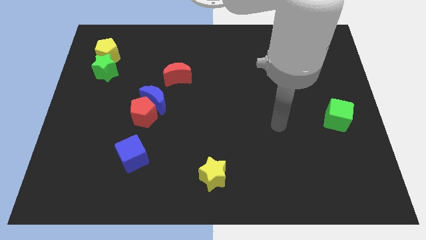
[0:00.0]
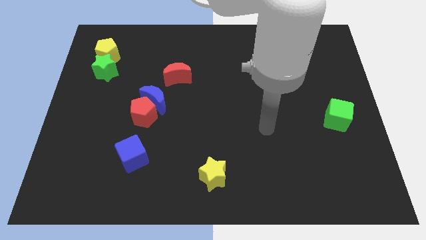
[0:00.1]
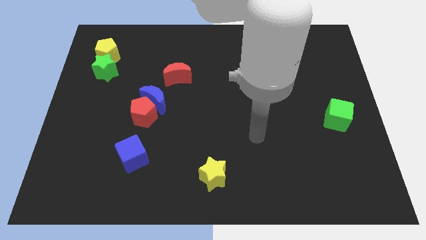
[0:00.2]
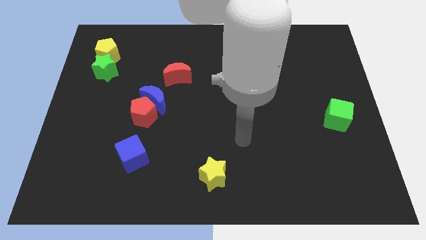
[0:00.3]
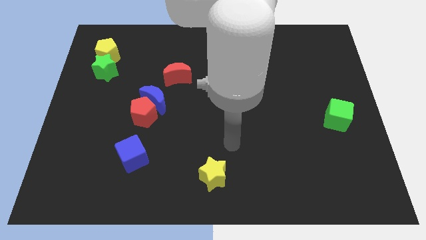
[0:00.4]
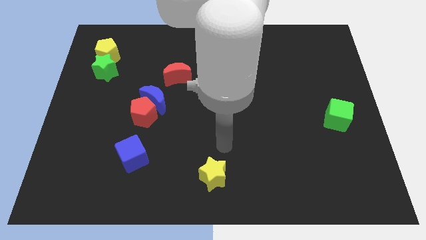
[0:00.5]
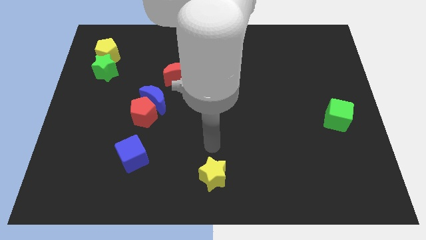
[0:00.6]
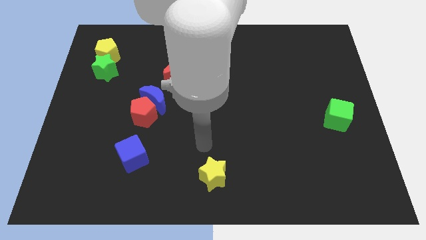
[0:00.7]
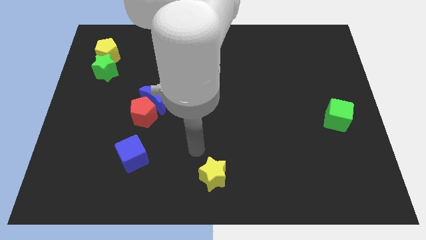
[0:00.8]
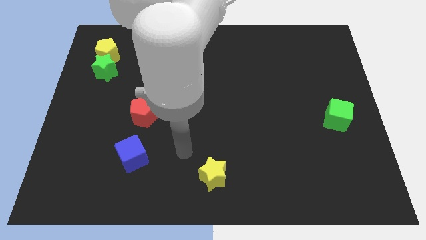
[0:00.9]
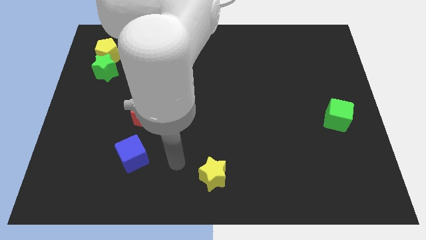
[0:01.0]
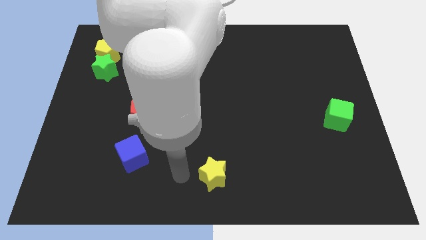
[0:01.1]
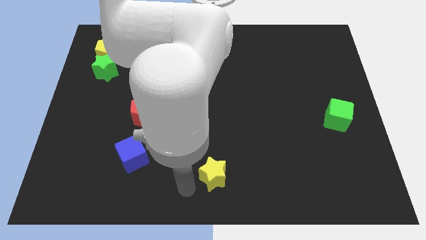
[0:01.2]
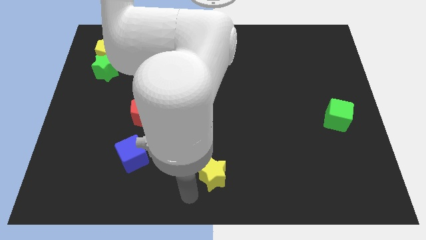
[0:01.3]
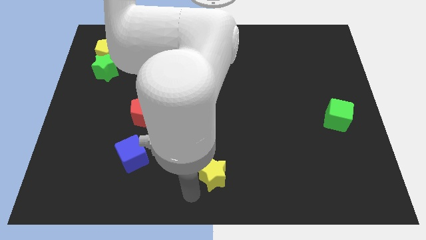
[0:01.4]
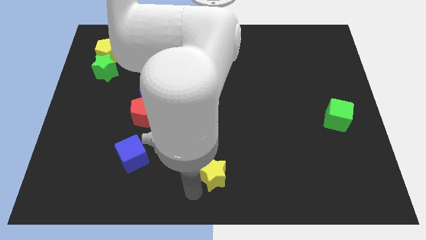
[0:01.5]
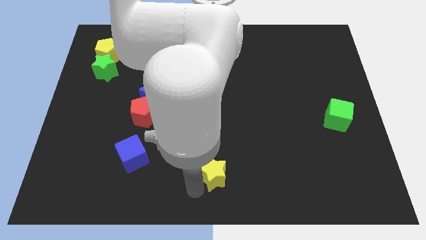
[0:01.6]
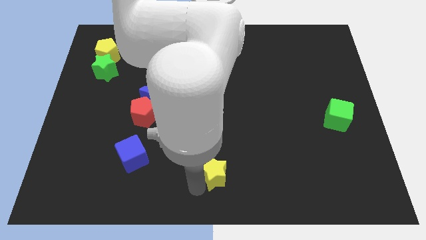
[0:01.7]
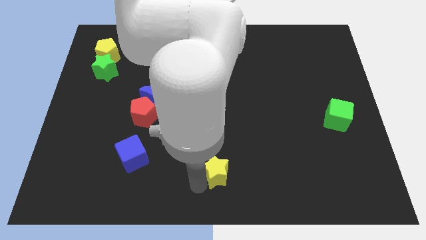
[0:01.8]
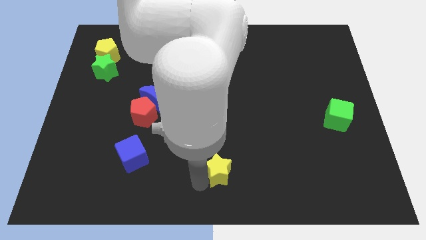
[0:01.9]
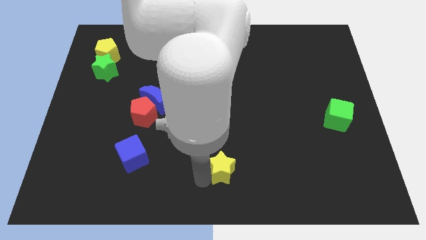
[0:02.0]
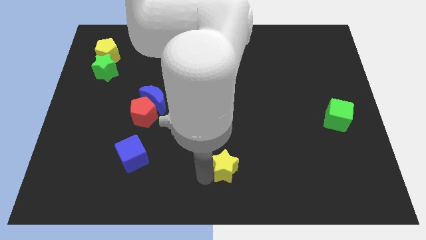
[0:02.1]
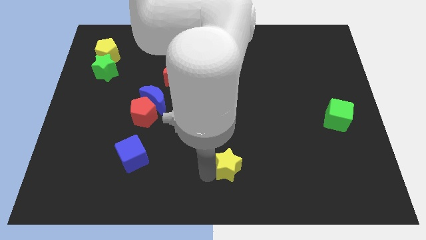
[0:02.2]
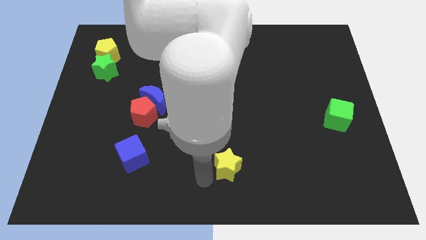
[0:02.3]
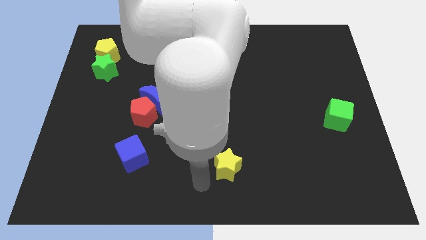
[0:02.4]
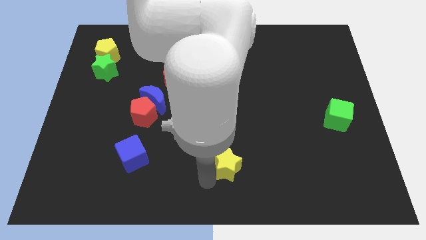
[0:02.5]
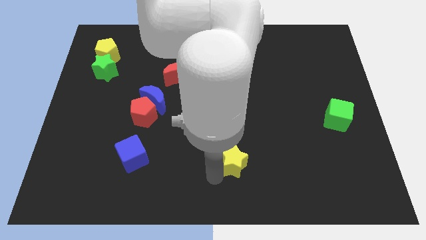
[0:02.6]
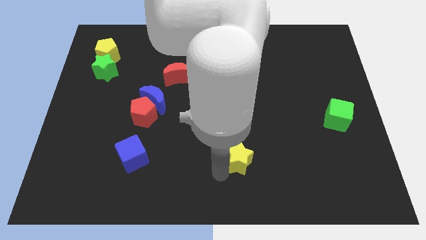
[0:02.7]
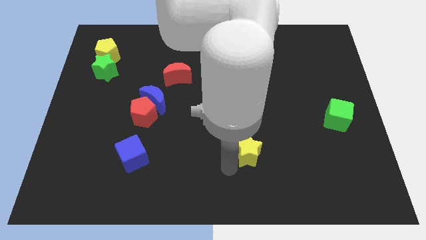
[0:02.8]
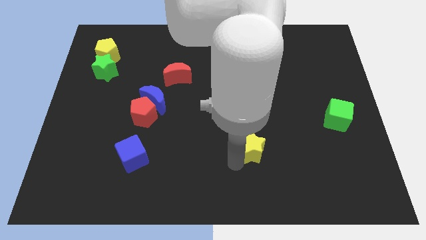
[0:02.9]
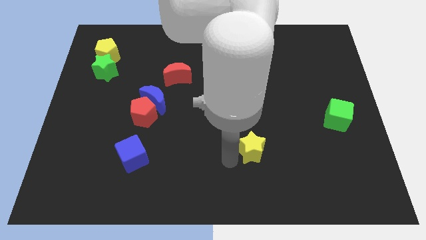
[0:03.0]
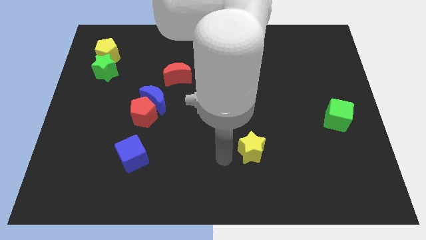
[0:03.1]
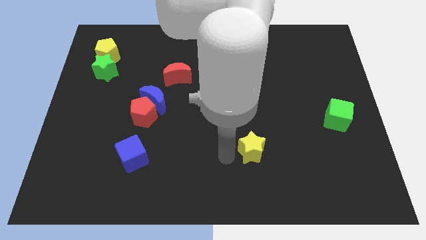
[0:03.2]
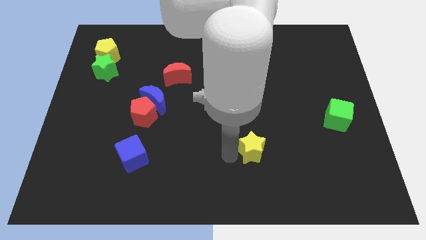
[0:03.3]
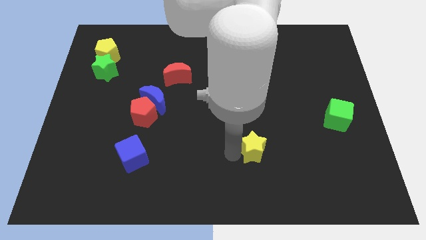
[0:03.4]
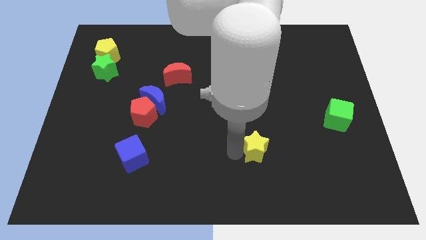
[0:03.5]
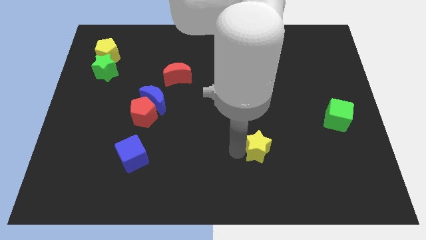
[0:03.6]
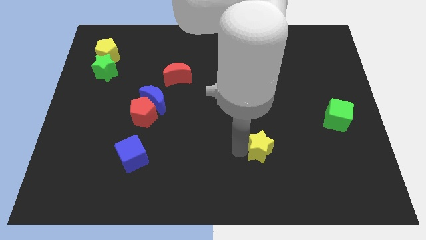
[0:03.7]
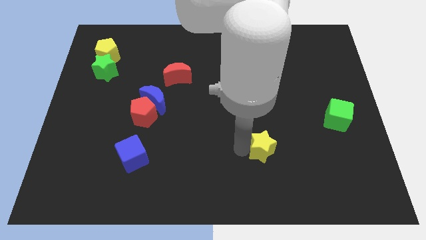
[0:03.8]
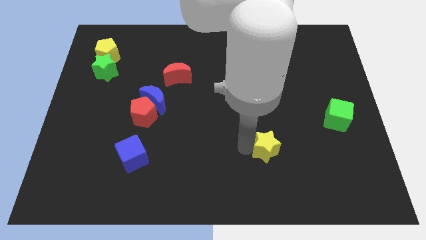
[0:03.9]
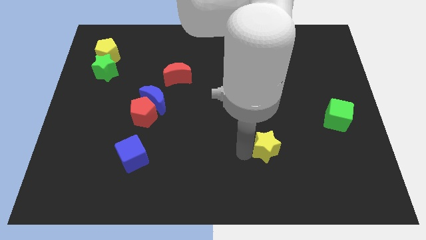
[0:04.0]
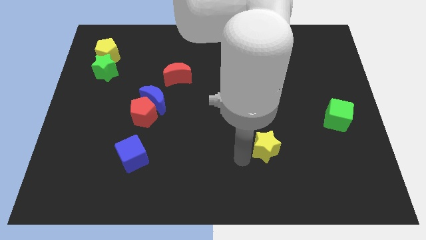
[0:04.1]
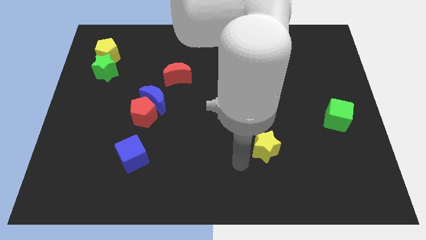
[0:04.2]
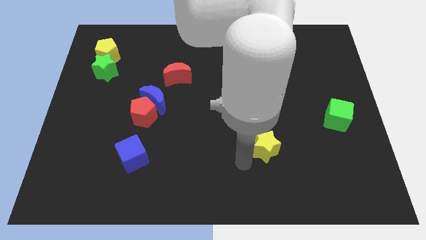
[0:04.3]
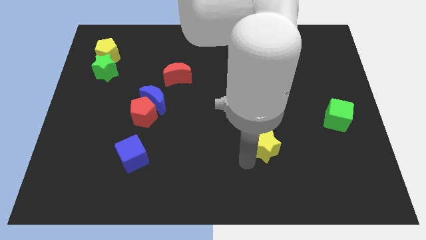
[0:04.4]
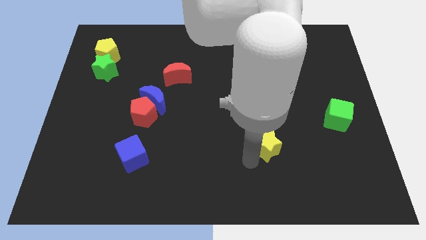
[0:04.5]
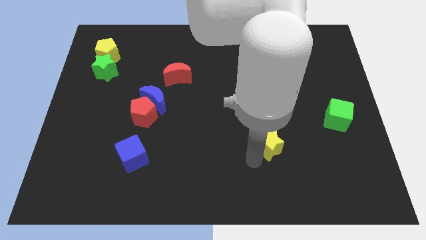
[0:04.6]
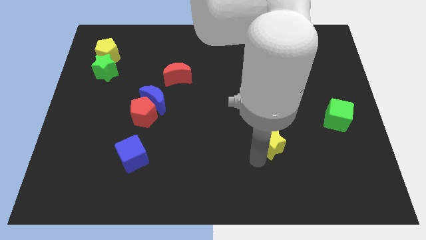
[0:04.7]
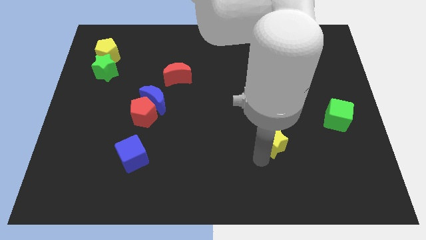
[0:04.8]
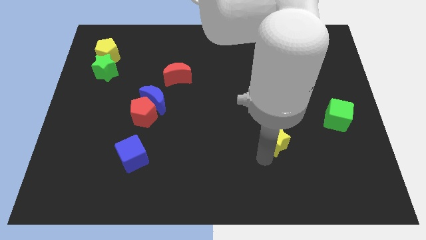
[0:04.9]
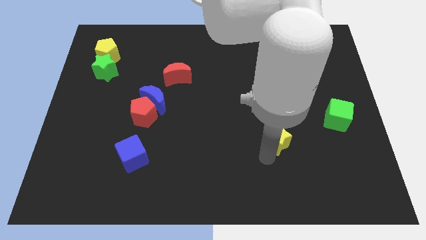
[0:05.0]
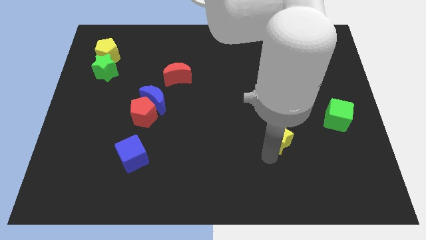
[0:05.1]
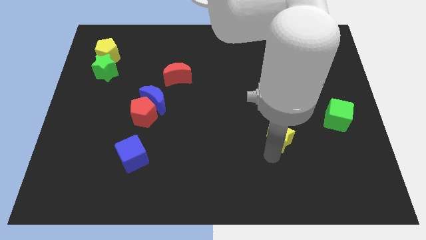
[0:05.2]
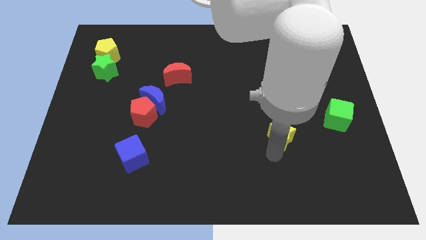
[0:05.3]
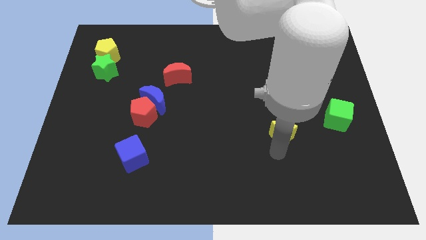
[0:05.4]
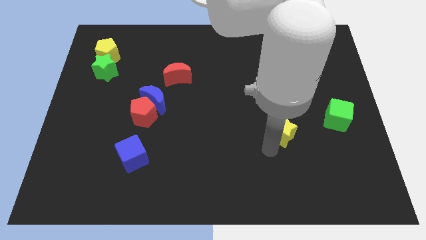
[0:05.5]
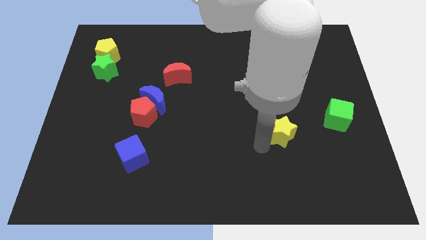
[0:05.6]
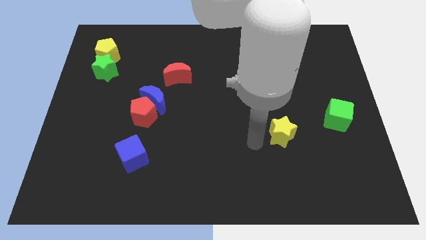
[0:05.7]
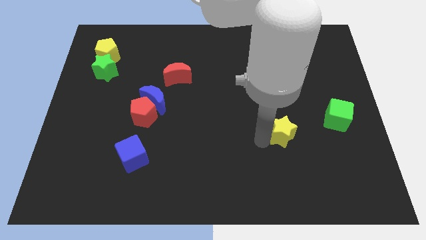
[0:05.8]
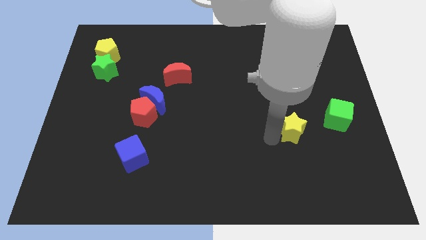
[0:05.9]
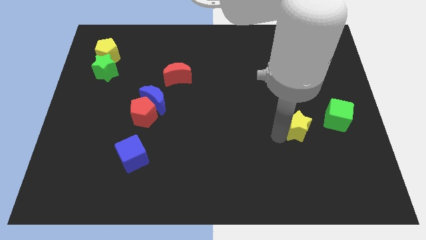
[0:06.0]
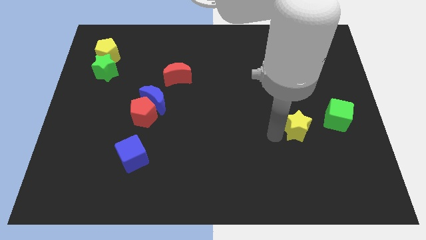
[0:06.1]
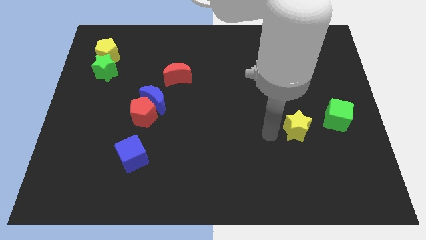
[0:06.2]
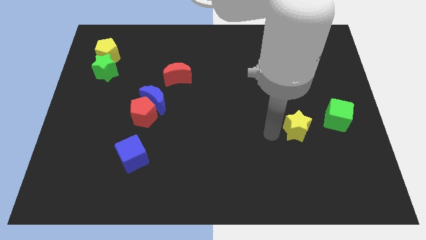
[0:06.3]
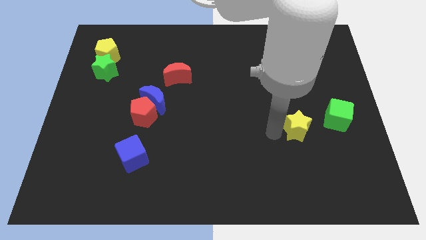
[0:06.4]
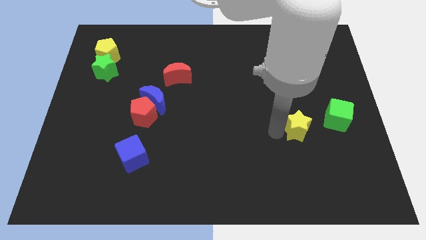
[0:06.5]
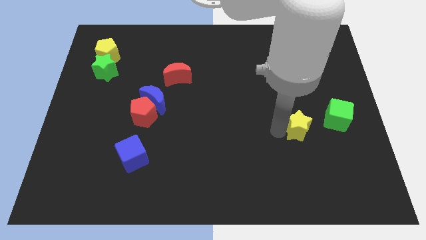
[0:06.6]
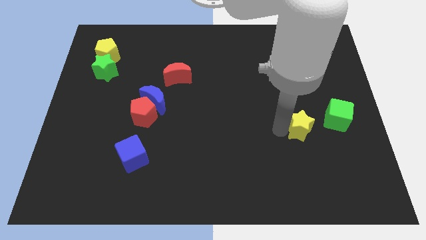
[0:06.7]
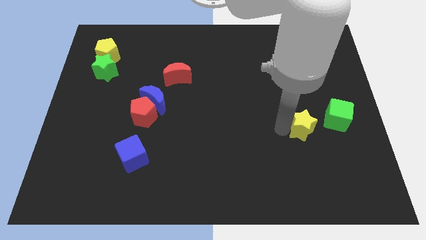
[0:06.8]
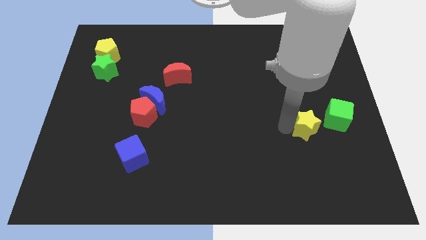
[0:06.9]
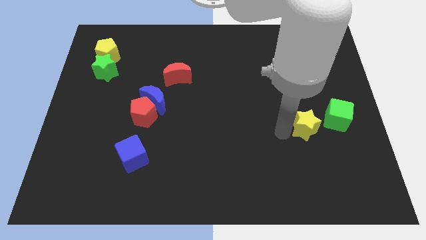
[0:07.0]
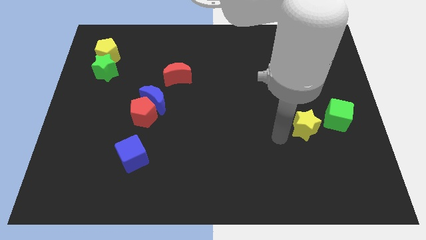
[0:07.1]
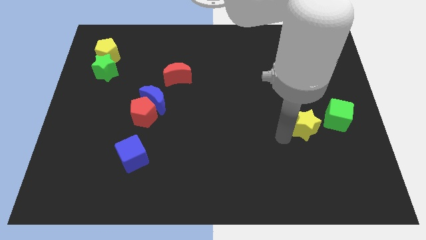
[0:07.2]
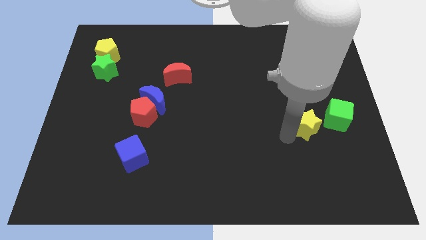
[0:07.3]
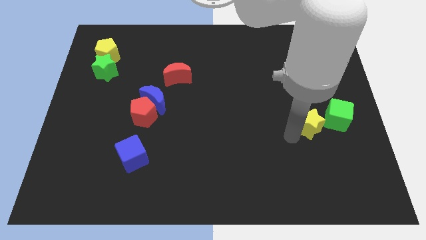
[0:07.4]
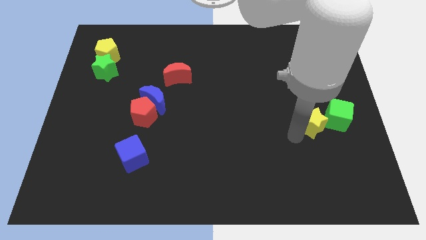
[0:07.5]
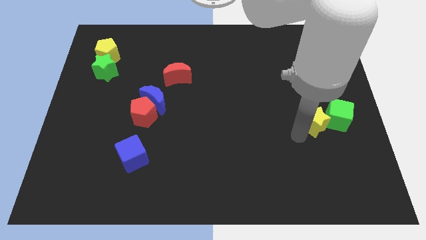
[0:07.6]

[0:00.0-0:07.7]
put the yellow star close to the green cube
